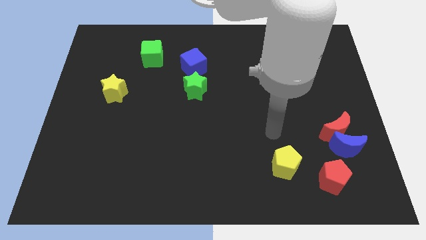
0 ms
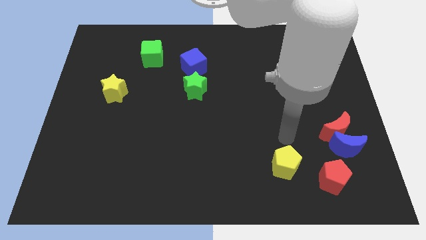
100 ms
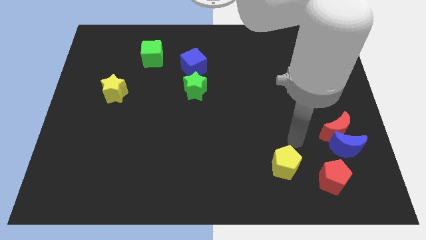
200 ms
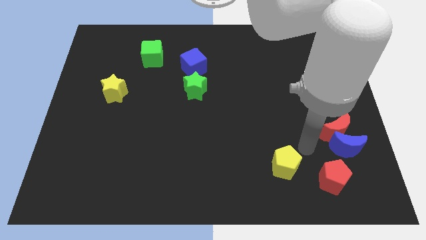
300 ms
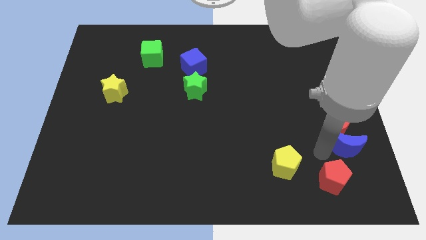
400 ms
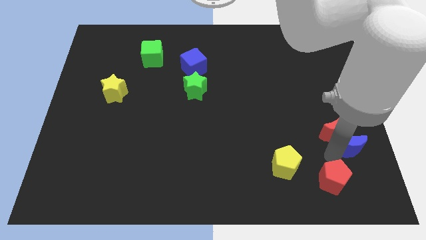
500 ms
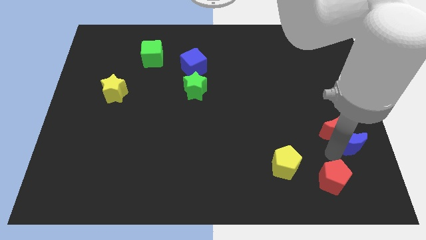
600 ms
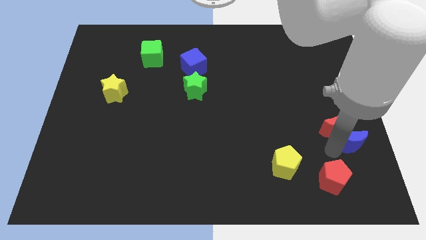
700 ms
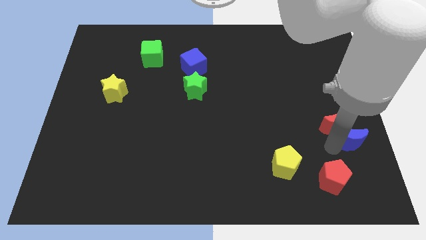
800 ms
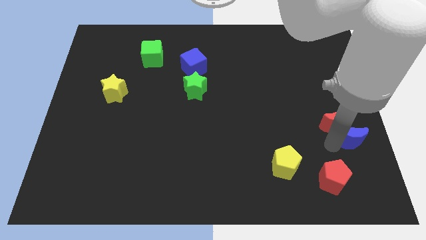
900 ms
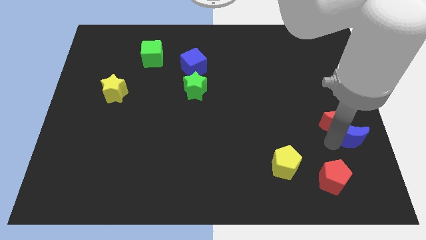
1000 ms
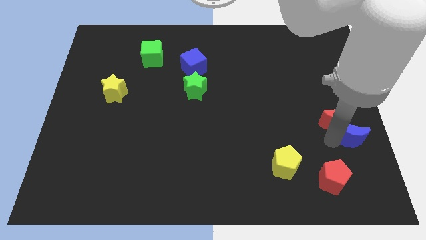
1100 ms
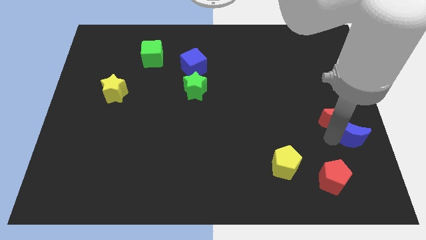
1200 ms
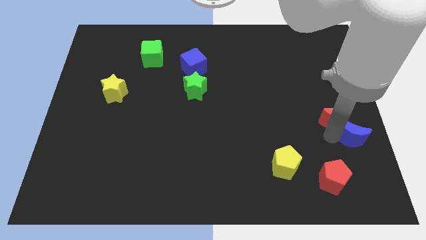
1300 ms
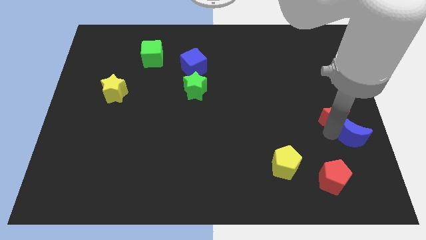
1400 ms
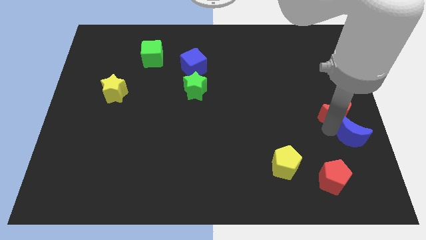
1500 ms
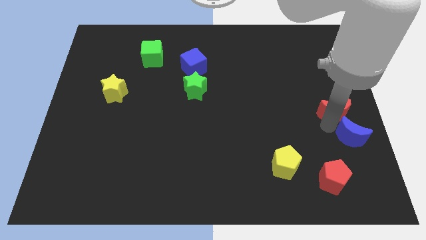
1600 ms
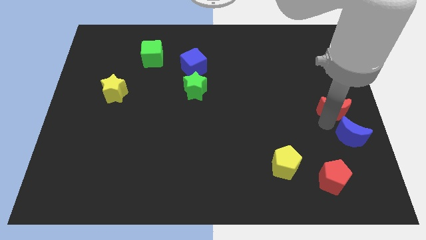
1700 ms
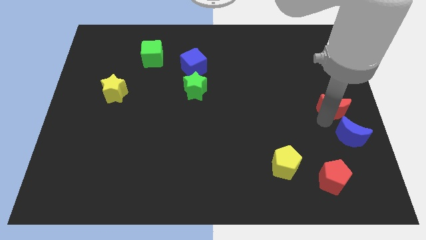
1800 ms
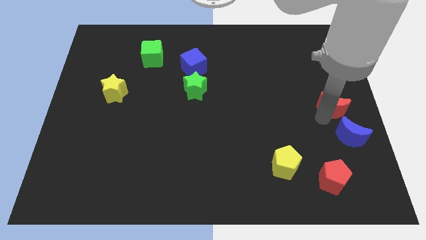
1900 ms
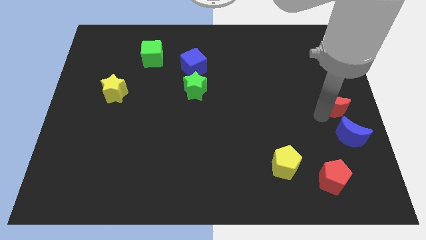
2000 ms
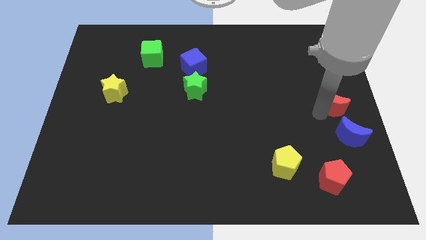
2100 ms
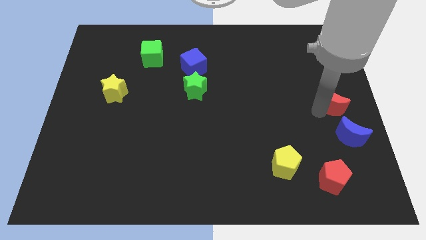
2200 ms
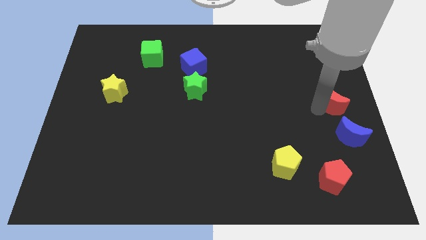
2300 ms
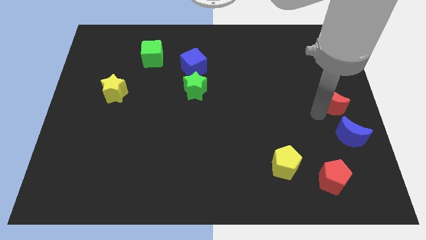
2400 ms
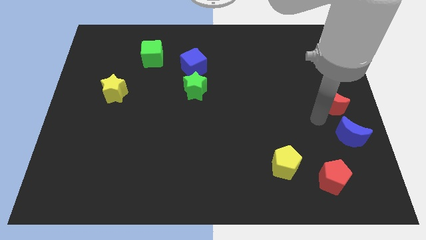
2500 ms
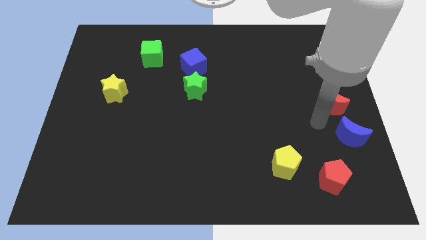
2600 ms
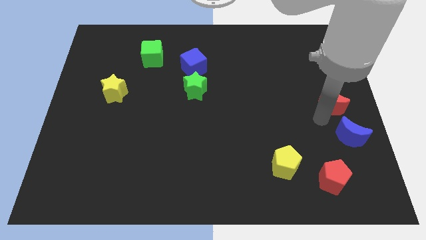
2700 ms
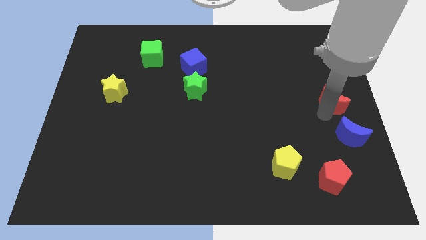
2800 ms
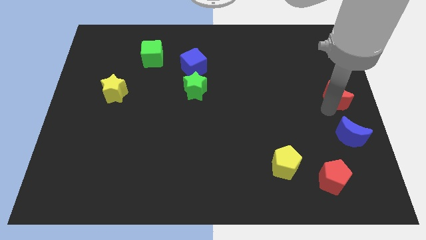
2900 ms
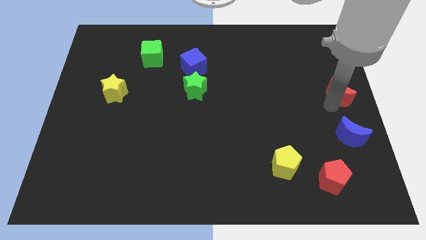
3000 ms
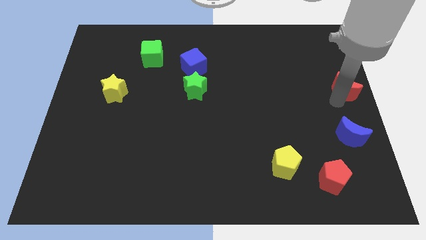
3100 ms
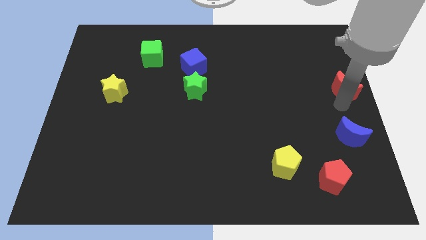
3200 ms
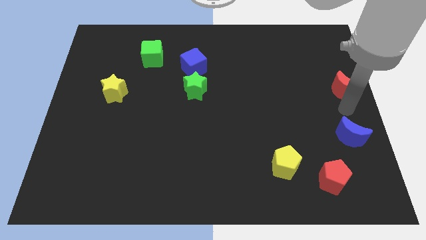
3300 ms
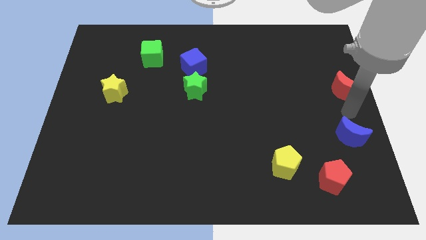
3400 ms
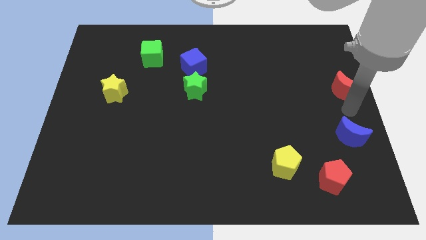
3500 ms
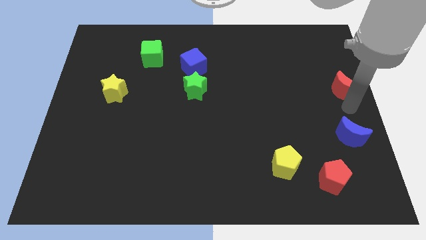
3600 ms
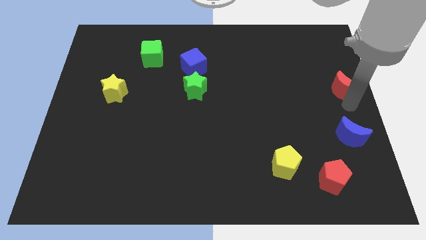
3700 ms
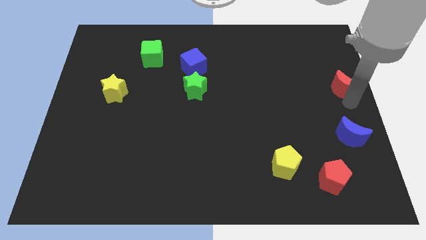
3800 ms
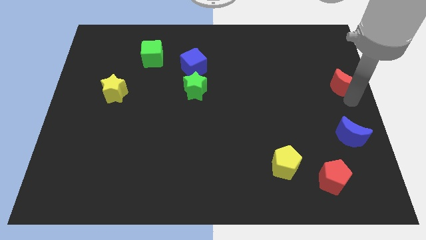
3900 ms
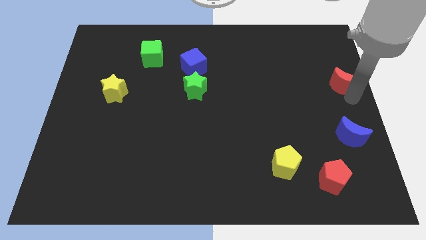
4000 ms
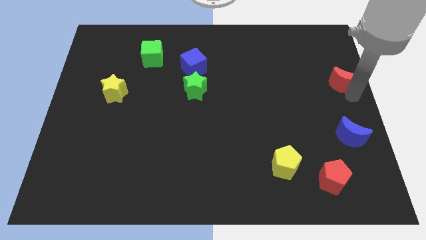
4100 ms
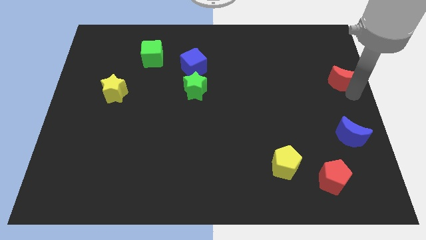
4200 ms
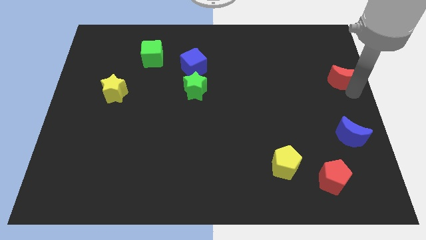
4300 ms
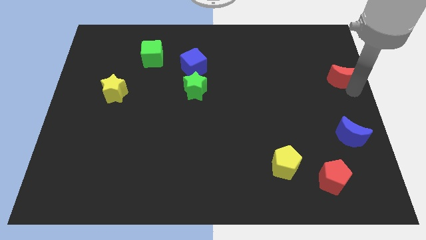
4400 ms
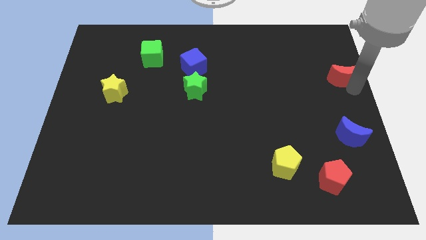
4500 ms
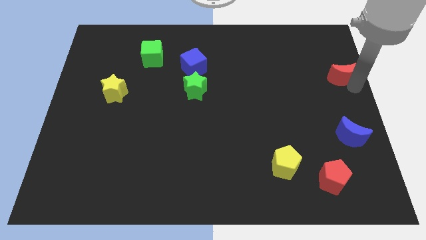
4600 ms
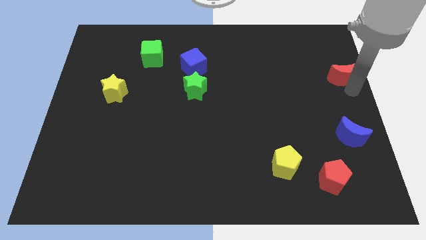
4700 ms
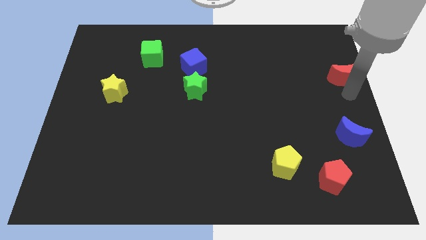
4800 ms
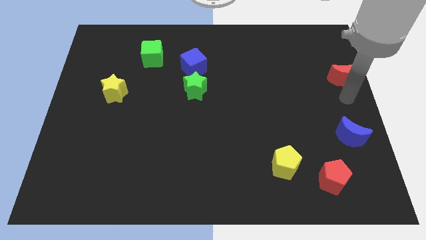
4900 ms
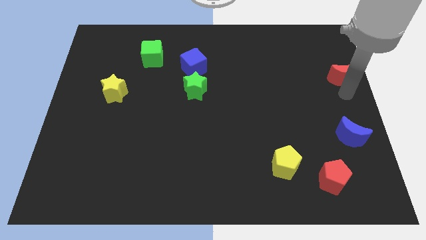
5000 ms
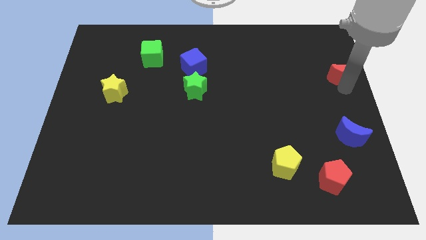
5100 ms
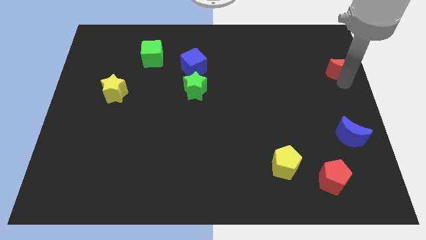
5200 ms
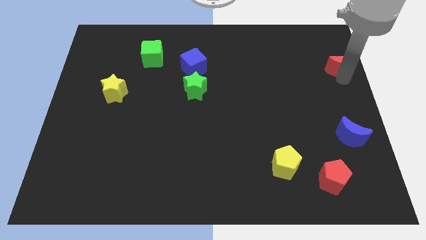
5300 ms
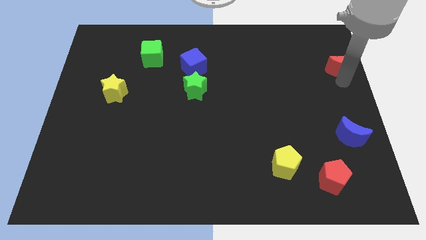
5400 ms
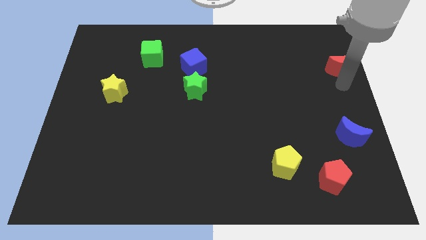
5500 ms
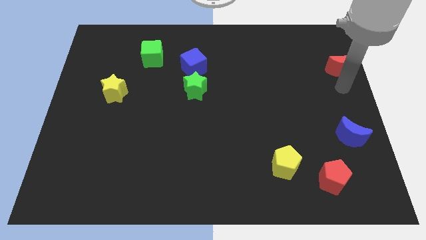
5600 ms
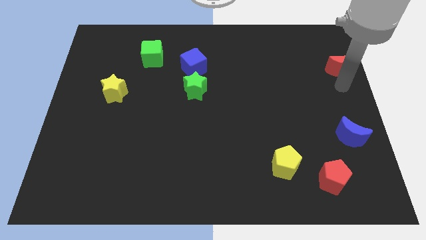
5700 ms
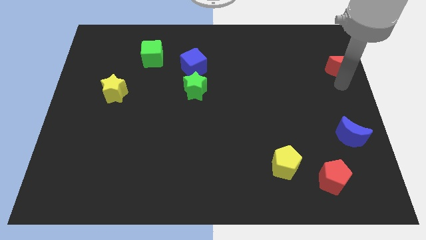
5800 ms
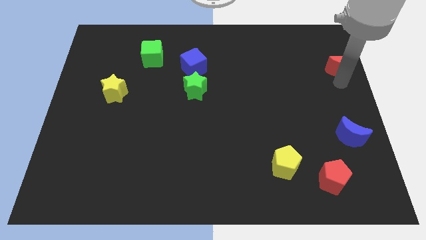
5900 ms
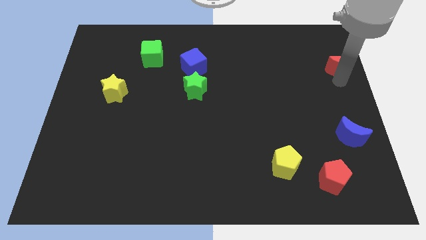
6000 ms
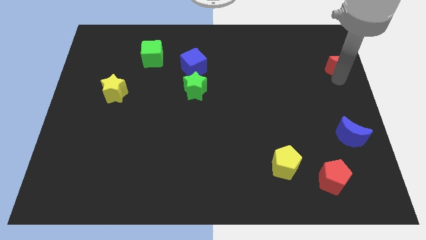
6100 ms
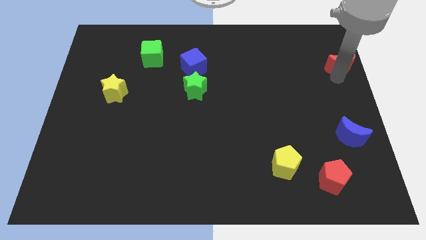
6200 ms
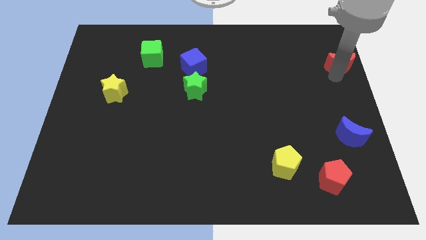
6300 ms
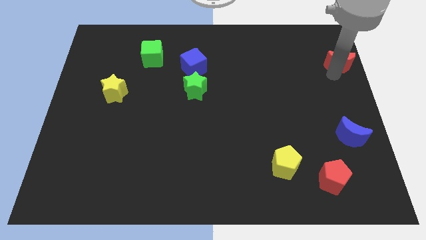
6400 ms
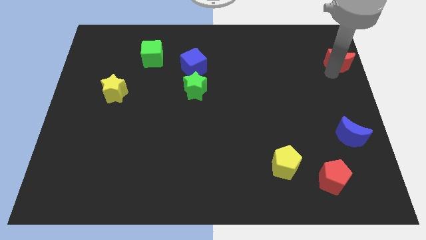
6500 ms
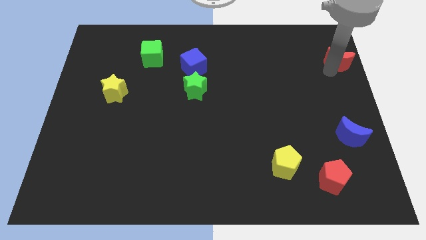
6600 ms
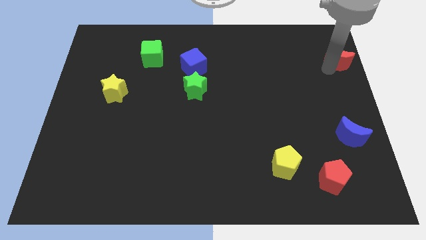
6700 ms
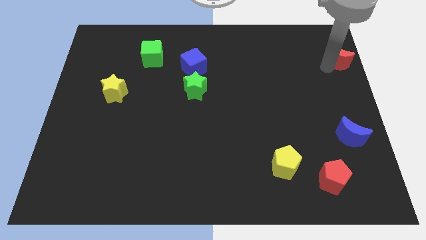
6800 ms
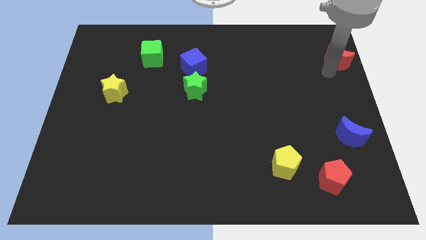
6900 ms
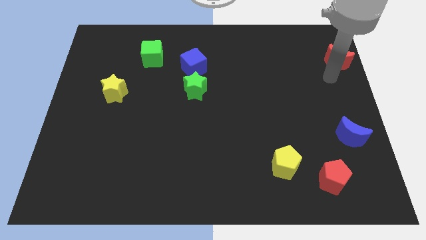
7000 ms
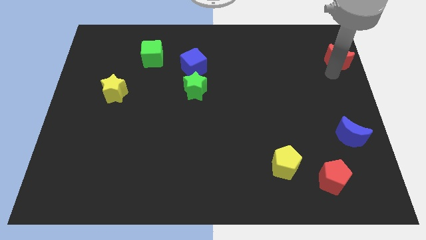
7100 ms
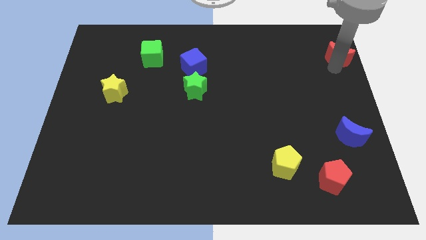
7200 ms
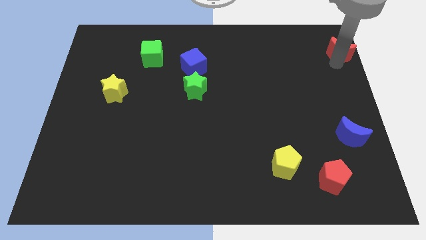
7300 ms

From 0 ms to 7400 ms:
slide the red moon to the top right corner
